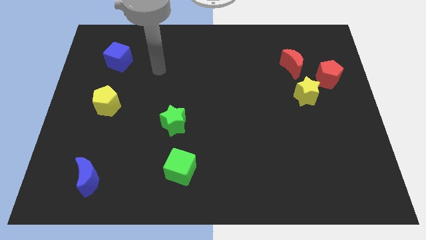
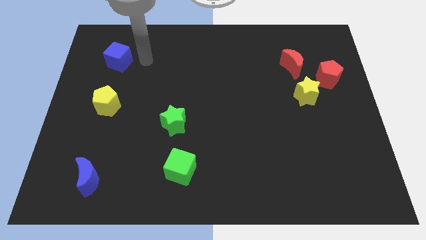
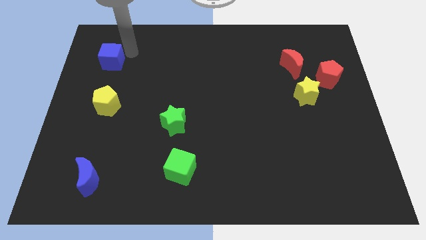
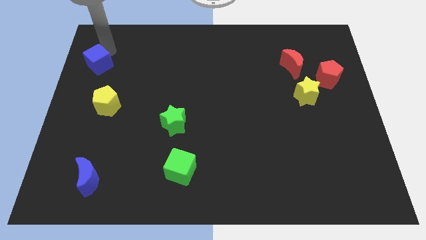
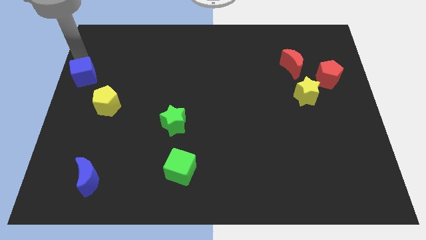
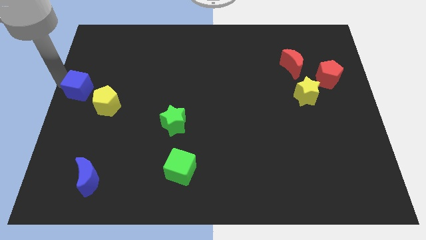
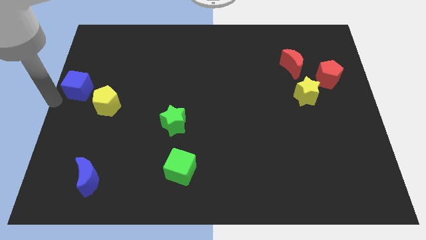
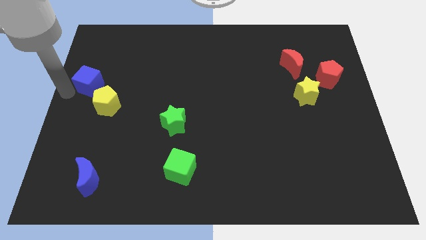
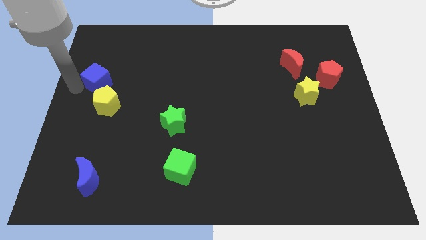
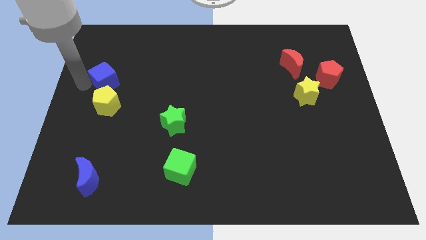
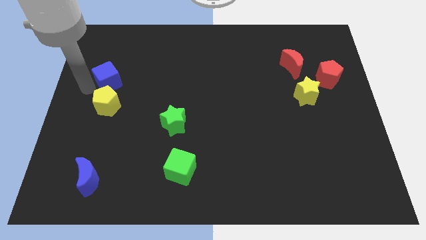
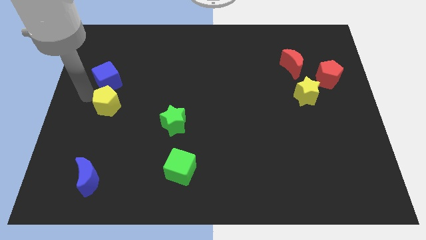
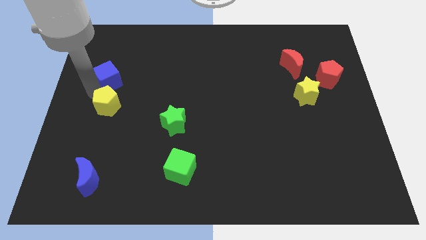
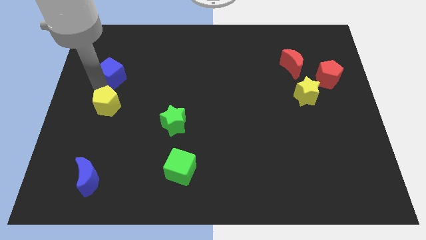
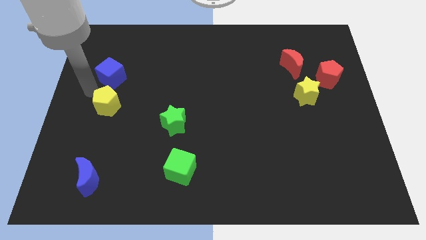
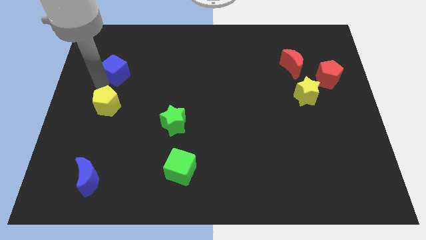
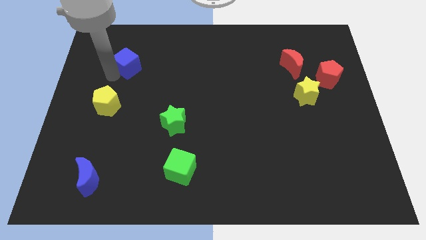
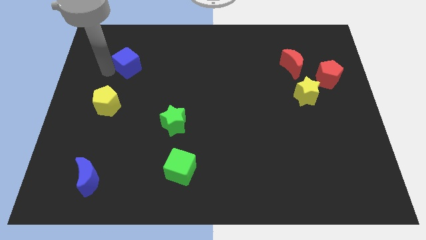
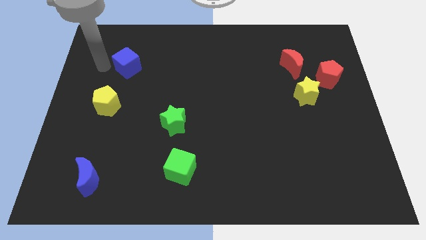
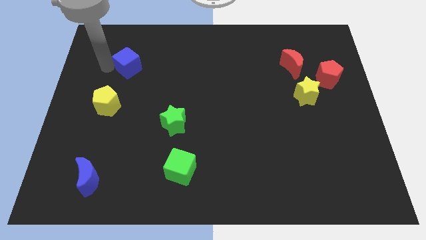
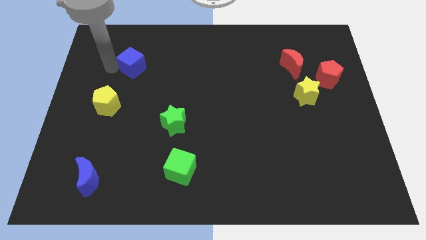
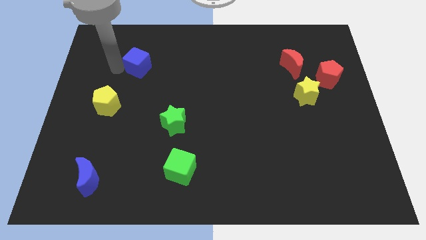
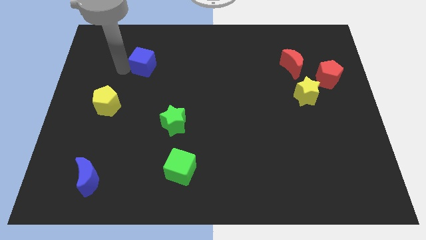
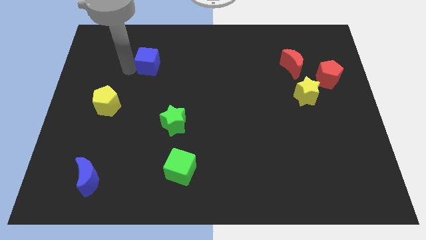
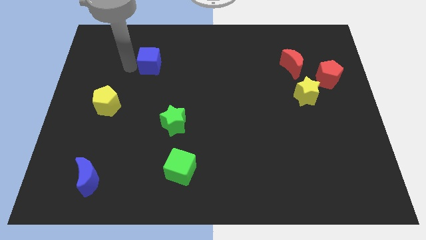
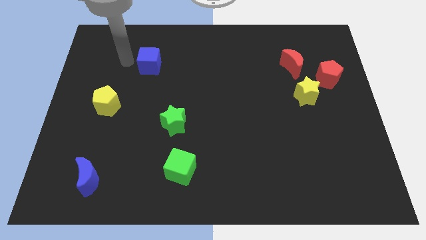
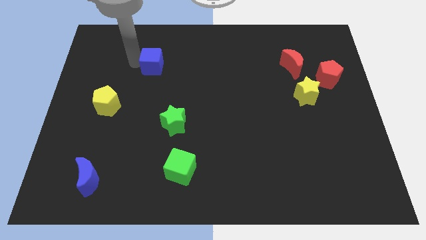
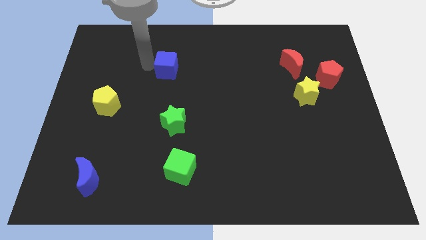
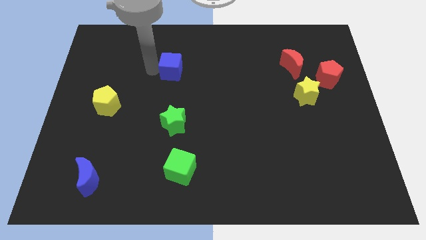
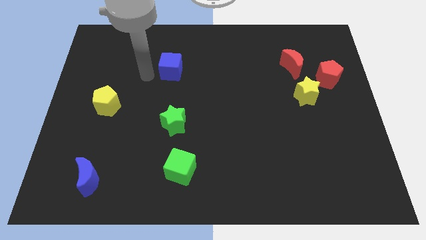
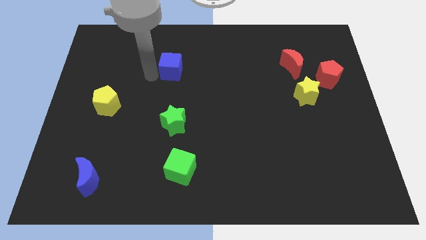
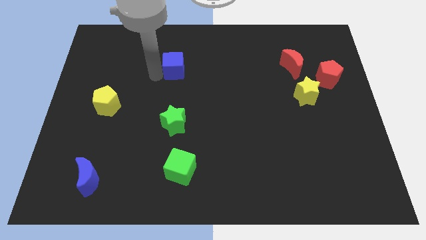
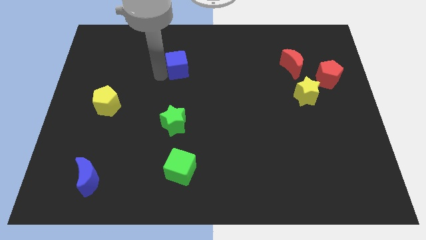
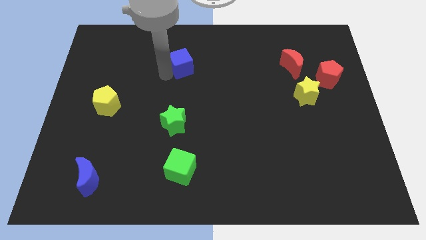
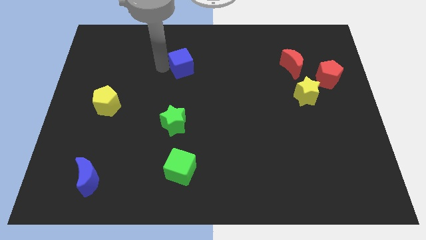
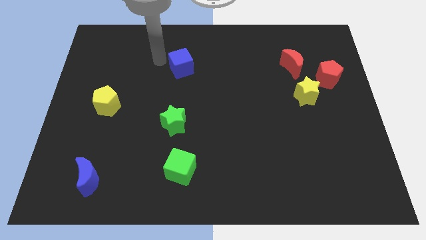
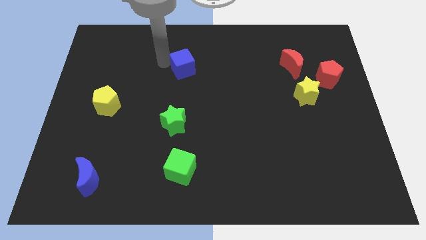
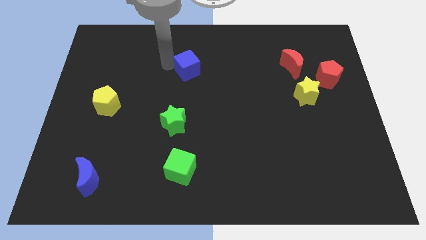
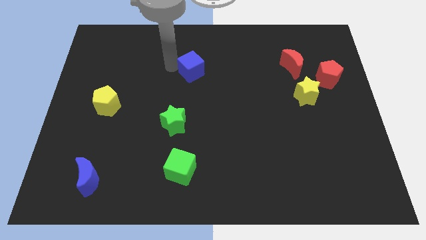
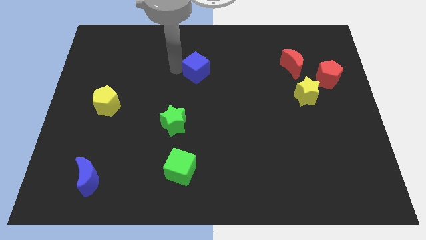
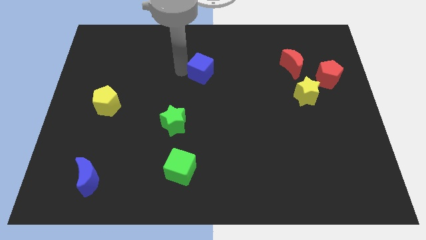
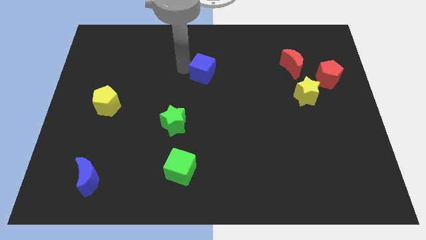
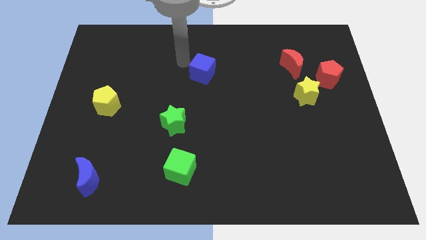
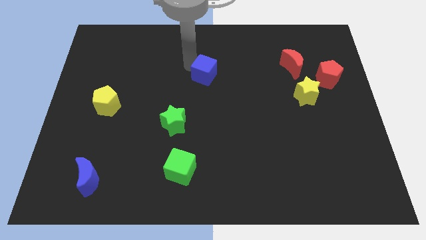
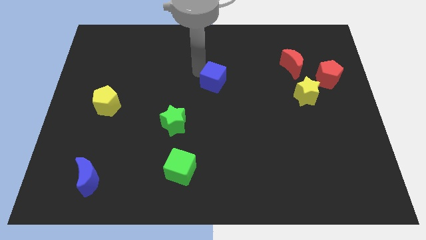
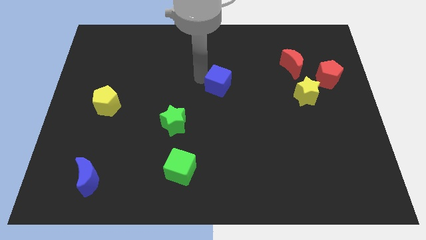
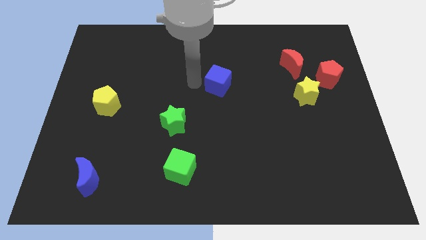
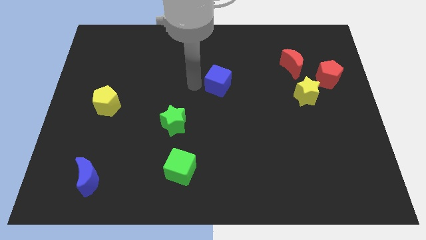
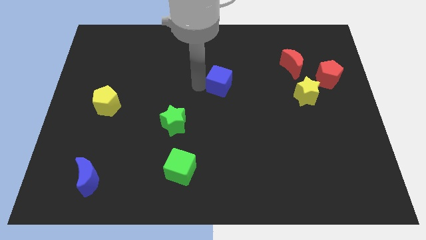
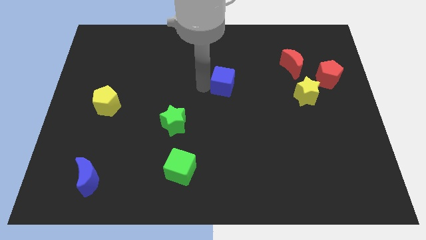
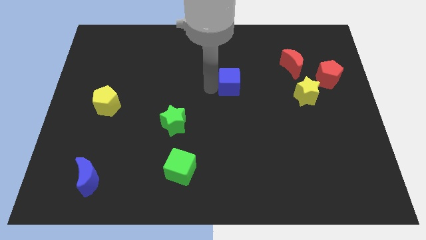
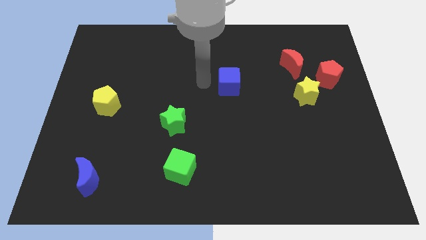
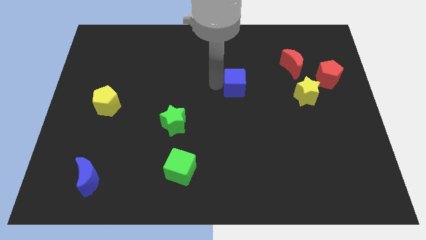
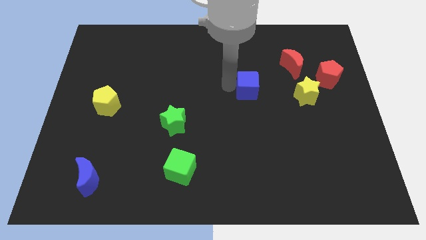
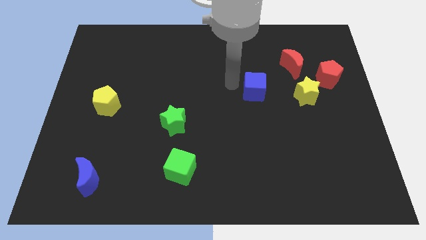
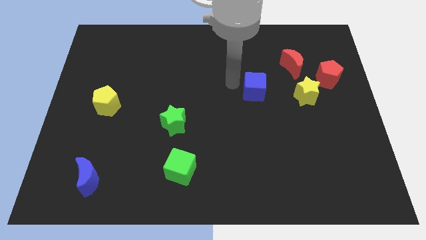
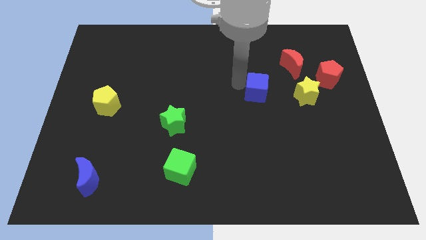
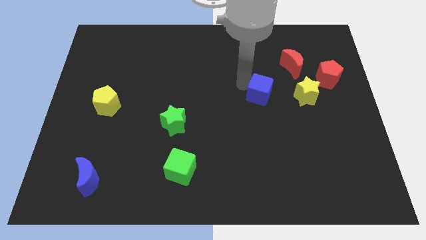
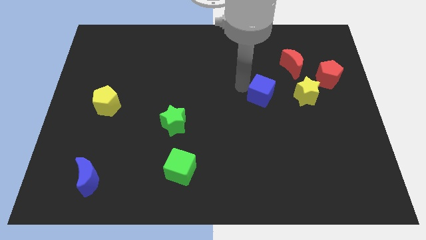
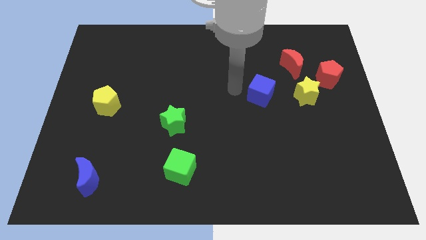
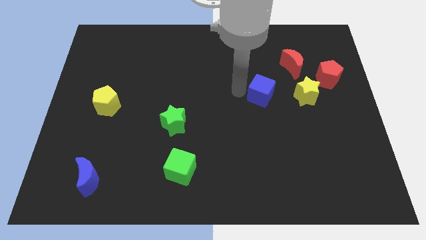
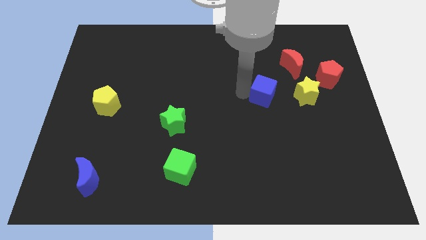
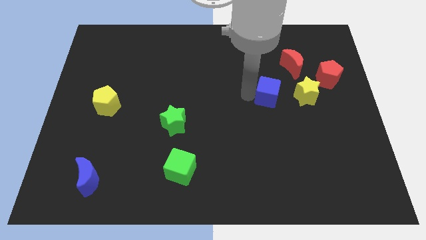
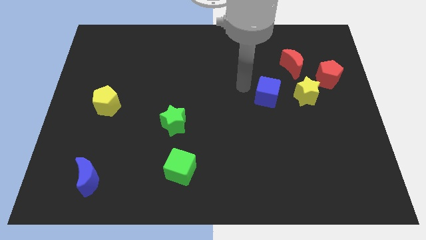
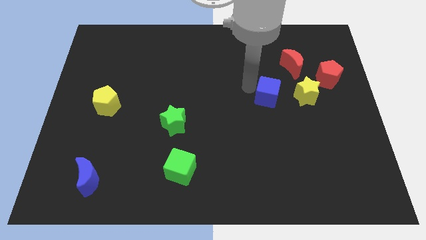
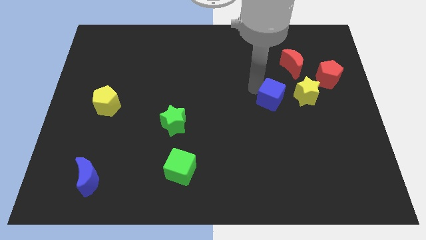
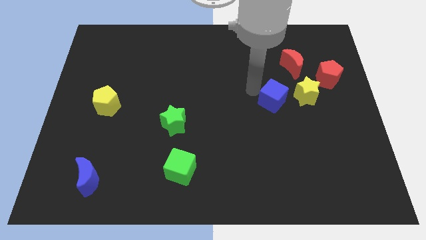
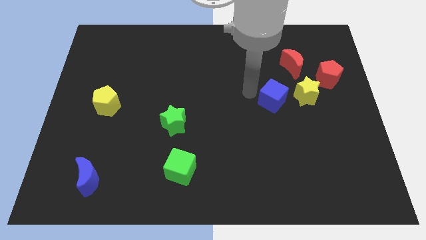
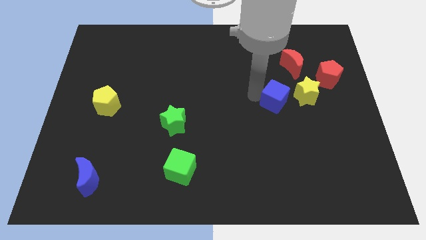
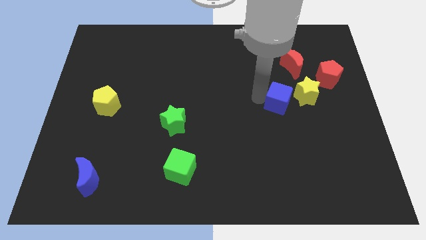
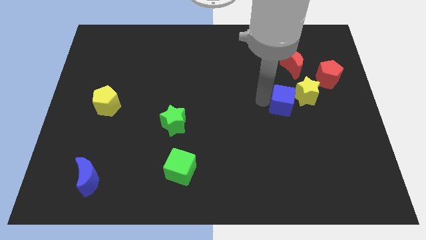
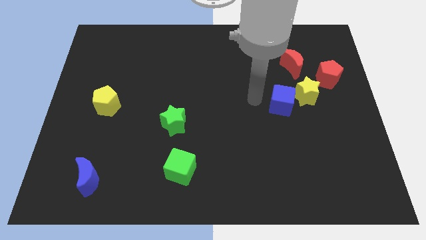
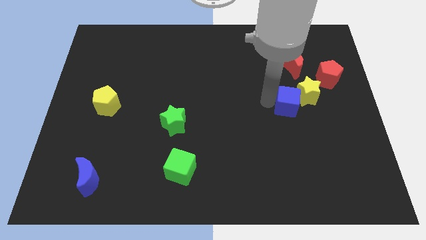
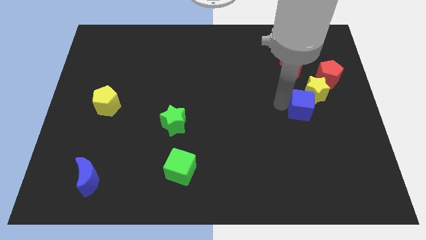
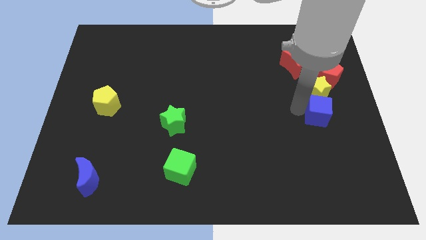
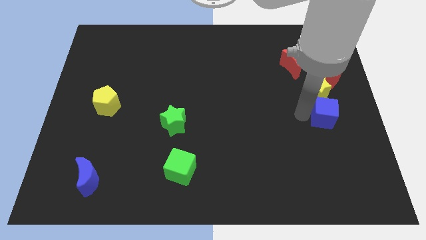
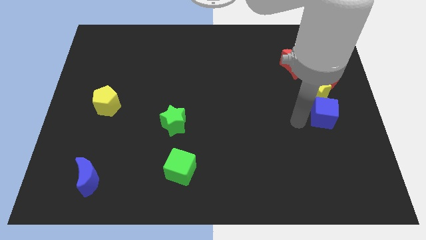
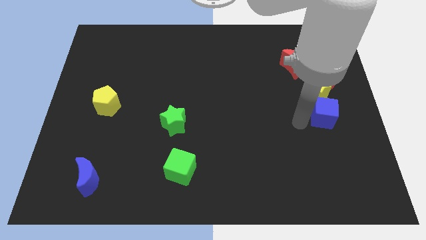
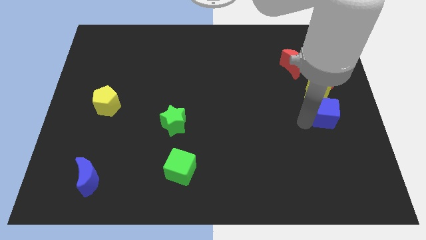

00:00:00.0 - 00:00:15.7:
move the blue cube to the right side of the board
